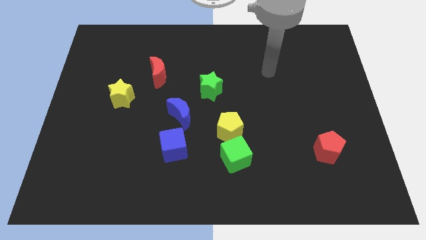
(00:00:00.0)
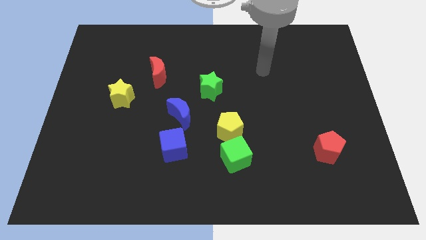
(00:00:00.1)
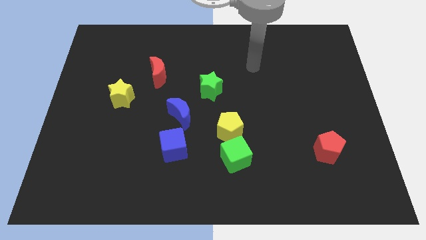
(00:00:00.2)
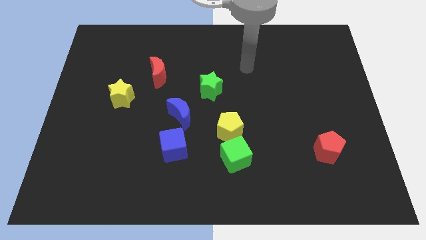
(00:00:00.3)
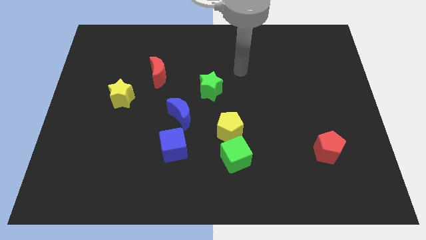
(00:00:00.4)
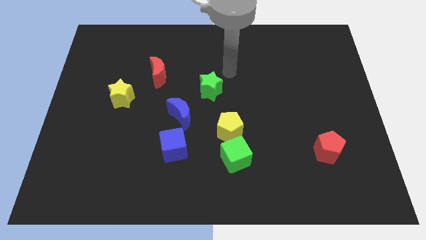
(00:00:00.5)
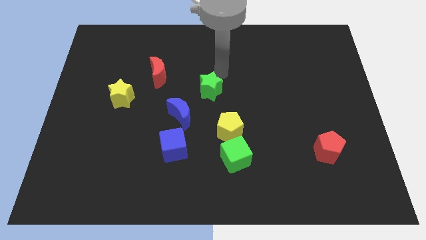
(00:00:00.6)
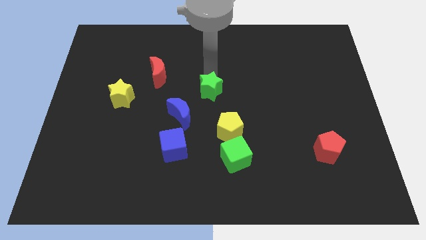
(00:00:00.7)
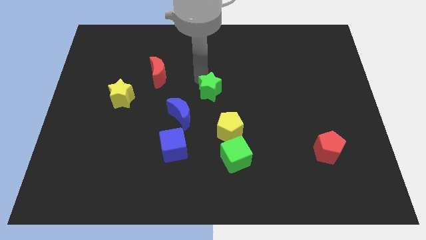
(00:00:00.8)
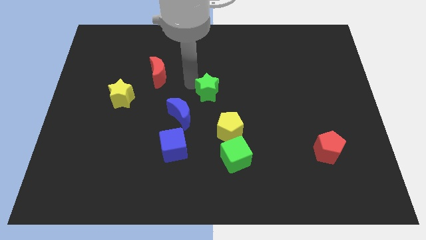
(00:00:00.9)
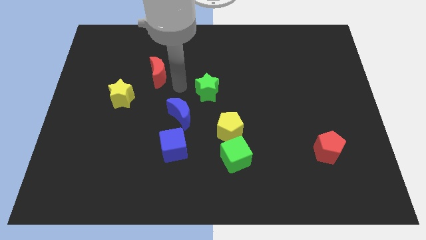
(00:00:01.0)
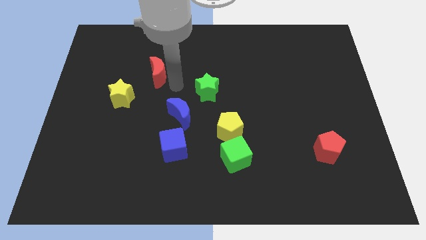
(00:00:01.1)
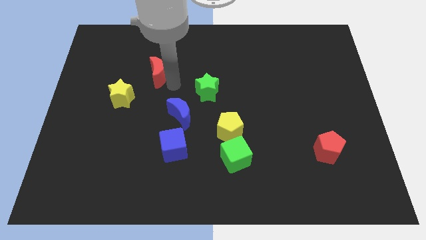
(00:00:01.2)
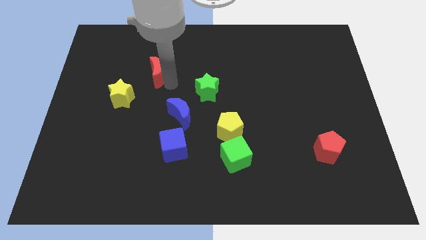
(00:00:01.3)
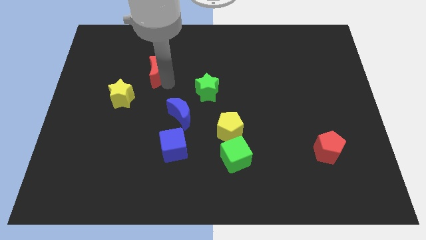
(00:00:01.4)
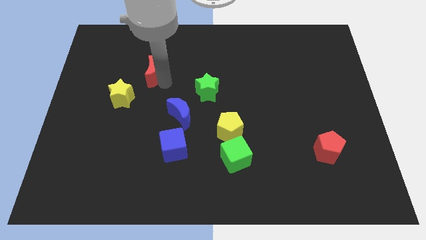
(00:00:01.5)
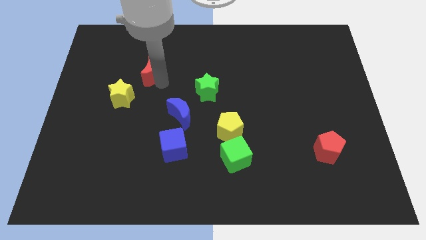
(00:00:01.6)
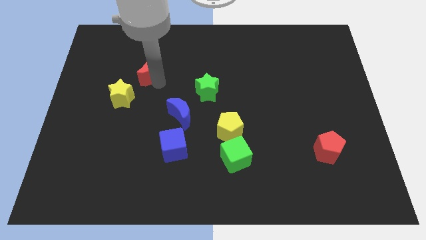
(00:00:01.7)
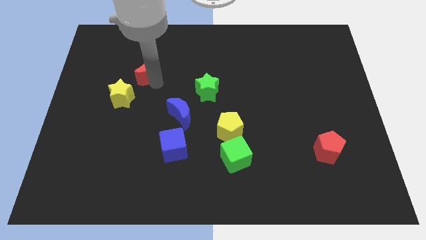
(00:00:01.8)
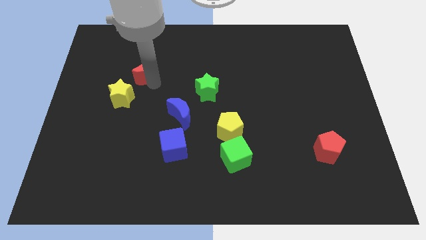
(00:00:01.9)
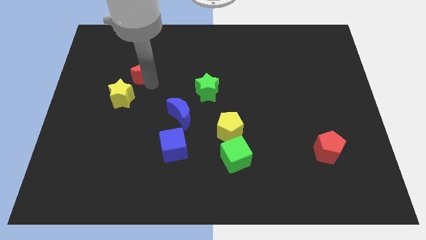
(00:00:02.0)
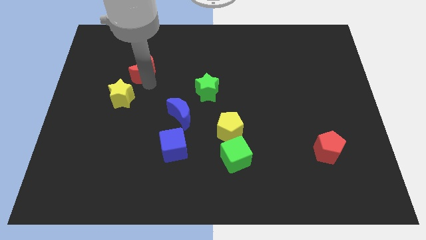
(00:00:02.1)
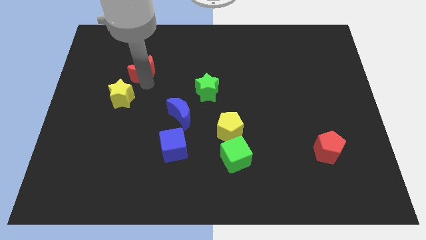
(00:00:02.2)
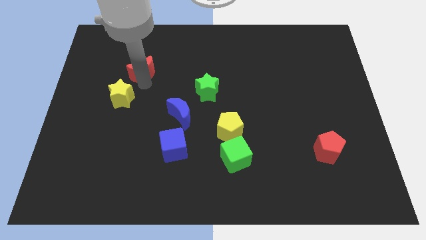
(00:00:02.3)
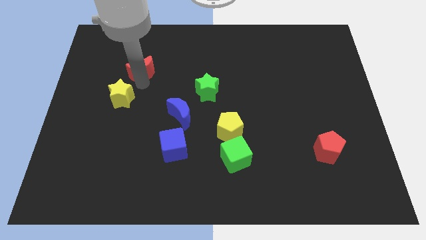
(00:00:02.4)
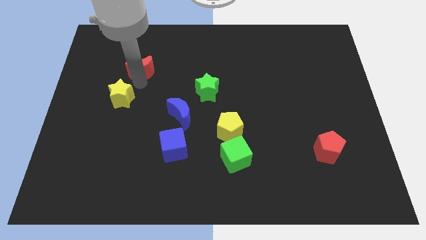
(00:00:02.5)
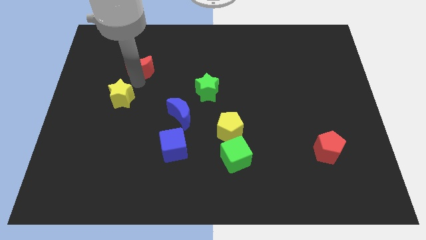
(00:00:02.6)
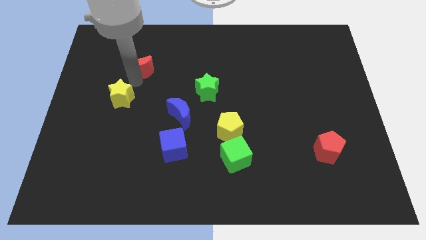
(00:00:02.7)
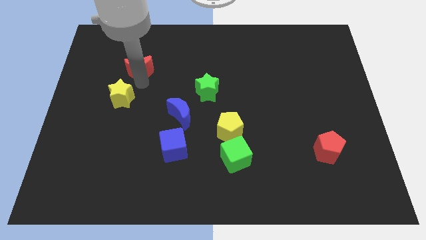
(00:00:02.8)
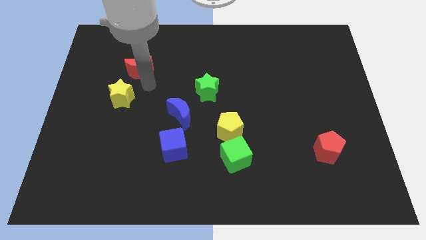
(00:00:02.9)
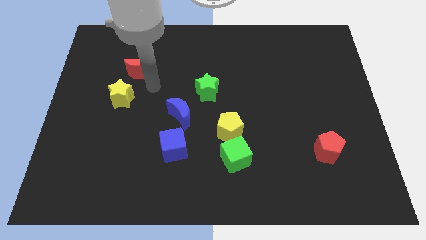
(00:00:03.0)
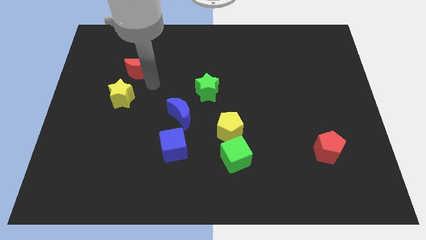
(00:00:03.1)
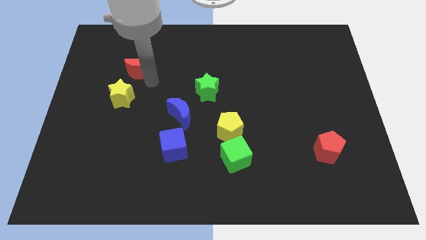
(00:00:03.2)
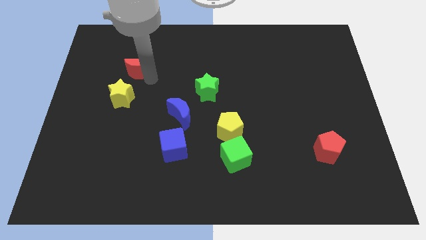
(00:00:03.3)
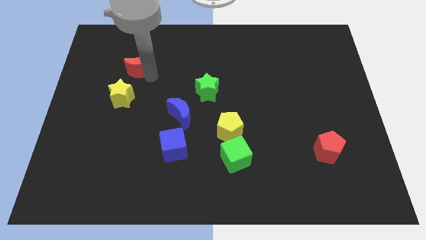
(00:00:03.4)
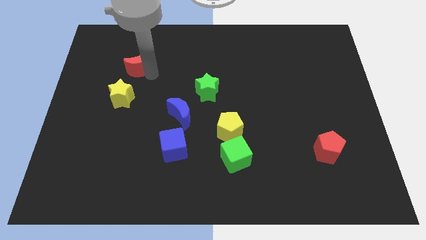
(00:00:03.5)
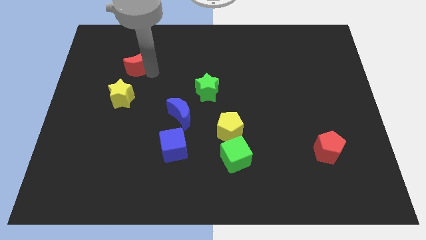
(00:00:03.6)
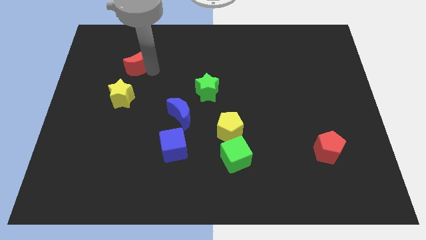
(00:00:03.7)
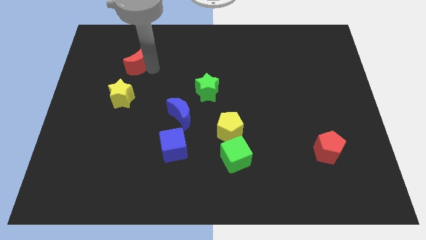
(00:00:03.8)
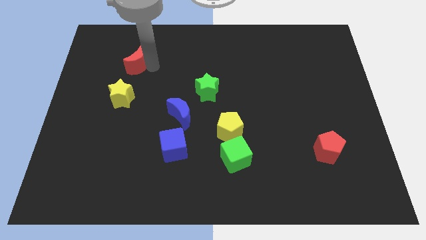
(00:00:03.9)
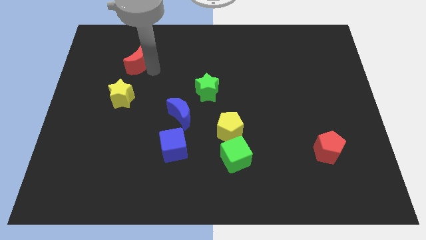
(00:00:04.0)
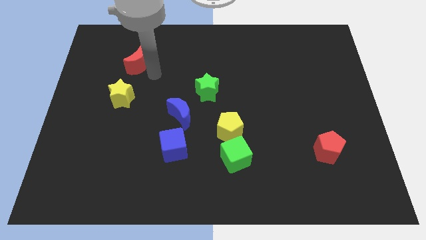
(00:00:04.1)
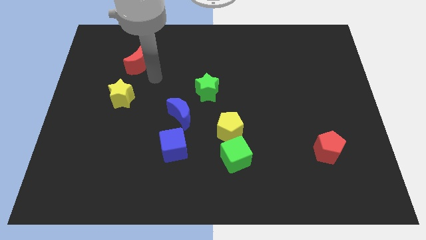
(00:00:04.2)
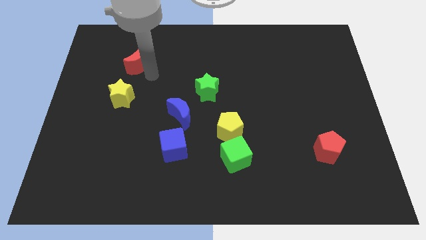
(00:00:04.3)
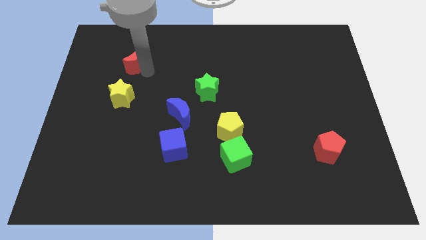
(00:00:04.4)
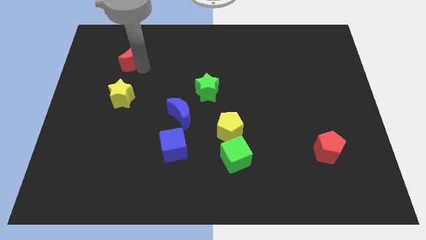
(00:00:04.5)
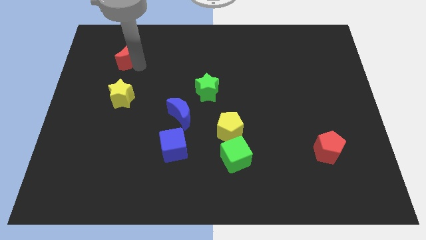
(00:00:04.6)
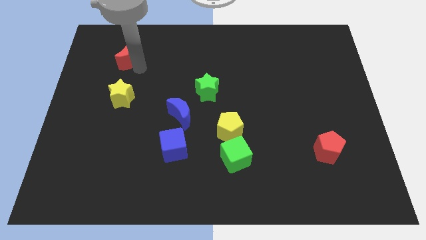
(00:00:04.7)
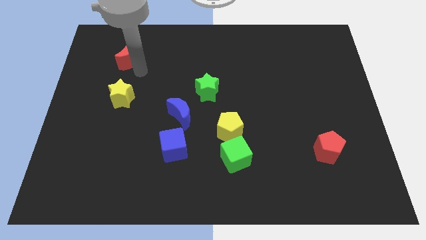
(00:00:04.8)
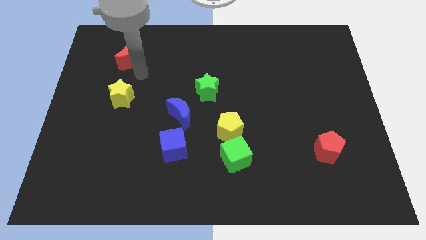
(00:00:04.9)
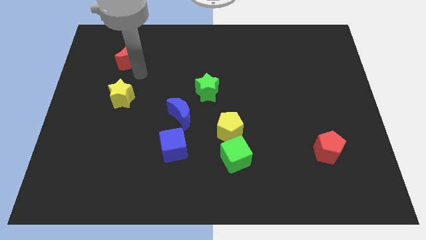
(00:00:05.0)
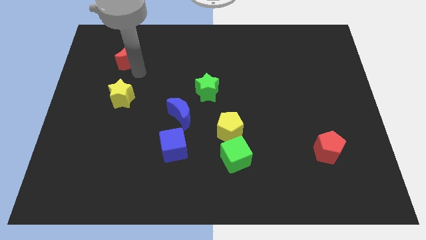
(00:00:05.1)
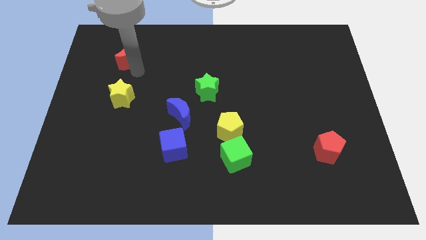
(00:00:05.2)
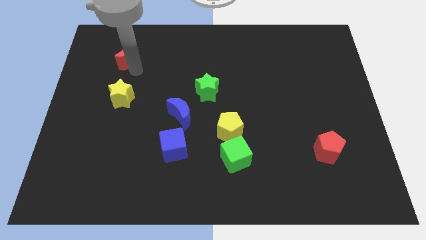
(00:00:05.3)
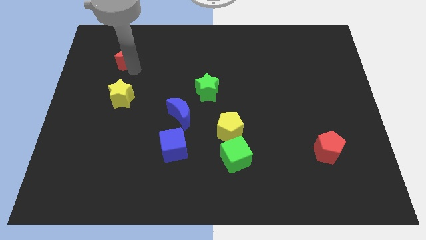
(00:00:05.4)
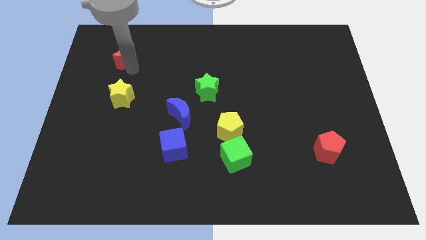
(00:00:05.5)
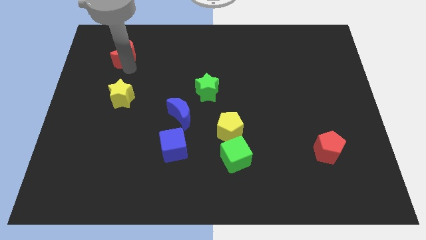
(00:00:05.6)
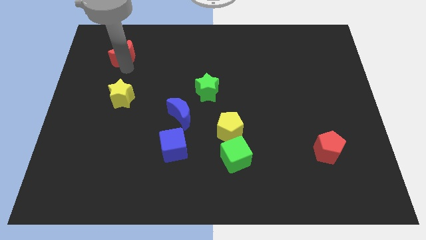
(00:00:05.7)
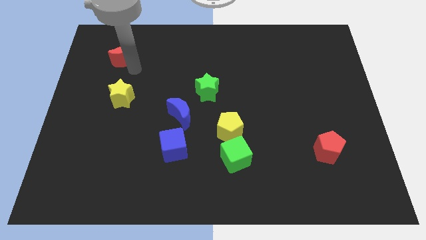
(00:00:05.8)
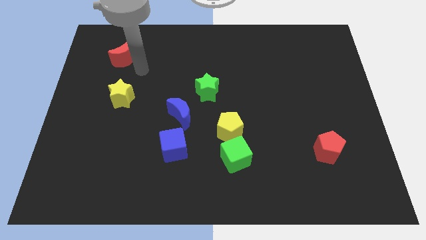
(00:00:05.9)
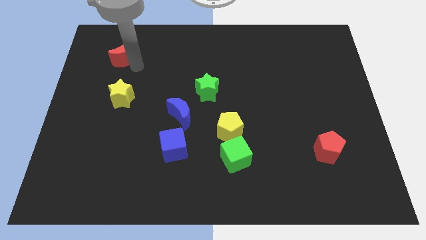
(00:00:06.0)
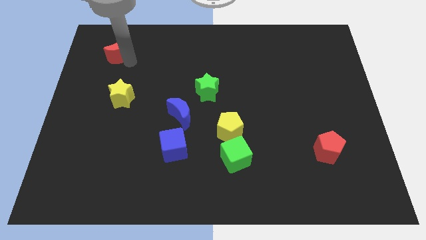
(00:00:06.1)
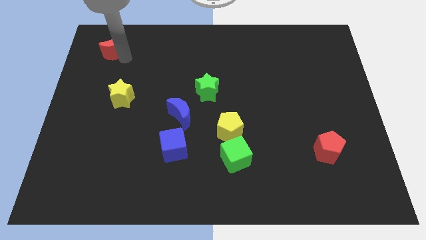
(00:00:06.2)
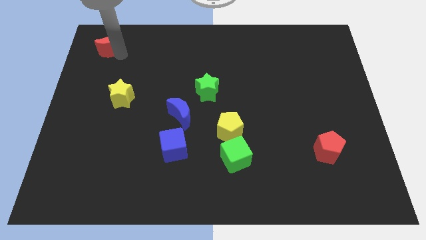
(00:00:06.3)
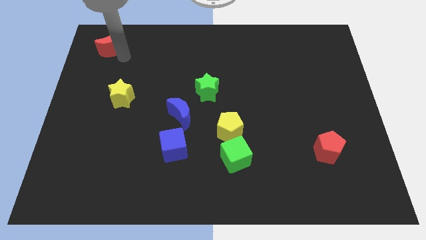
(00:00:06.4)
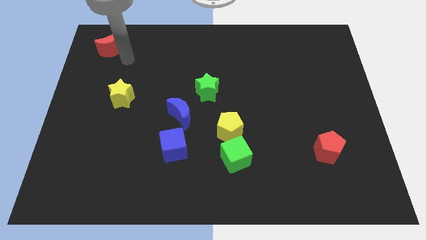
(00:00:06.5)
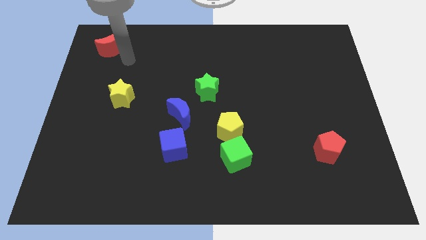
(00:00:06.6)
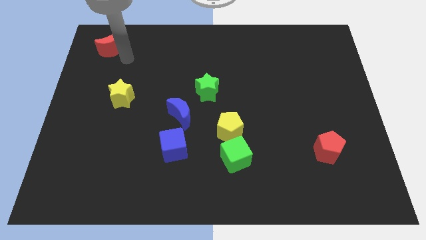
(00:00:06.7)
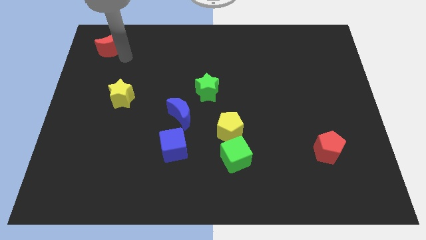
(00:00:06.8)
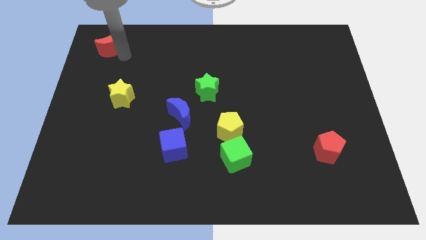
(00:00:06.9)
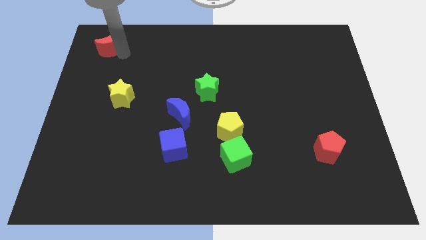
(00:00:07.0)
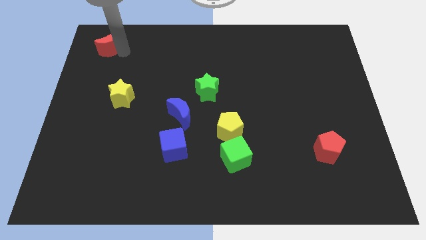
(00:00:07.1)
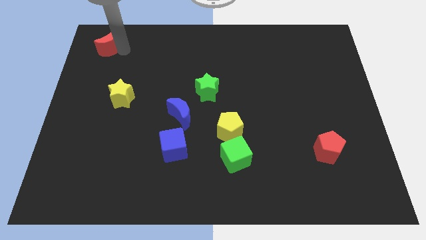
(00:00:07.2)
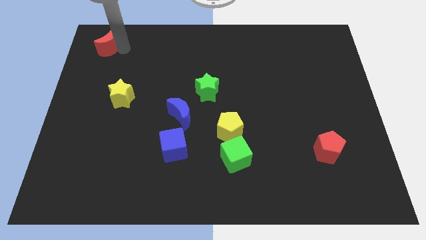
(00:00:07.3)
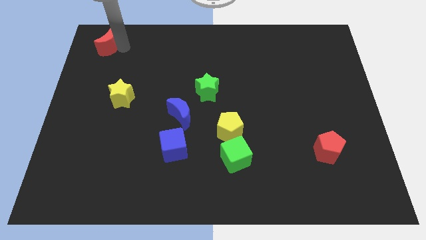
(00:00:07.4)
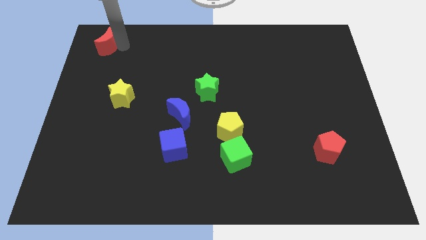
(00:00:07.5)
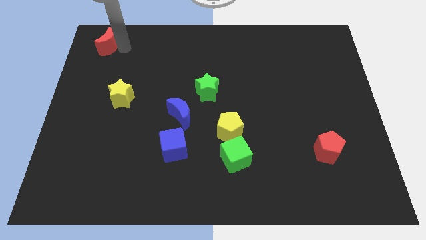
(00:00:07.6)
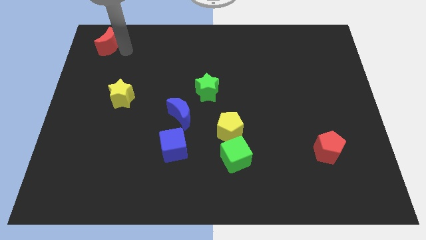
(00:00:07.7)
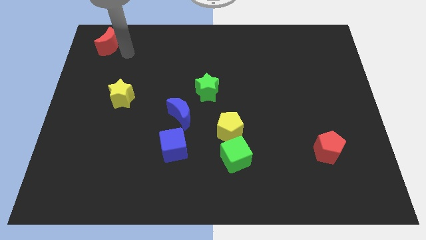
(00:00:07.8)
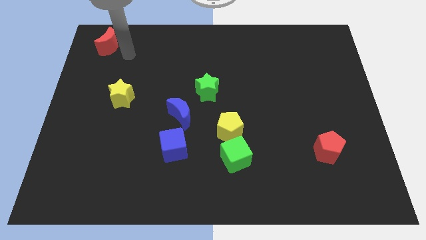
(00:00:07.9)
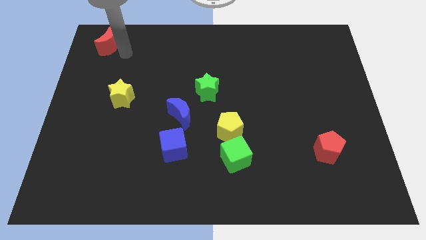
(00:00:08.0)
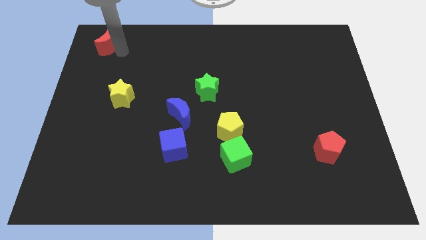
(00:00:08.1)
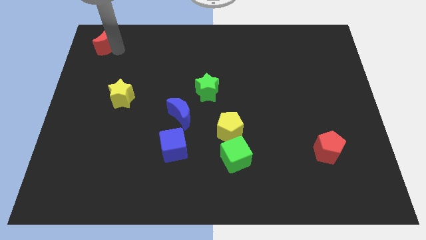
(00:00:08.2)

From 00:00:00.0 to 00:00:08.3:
move the red moon to the top left corner
